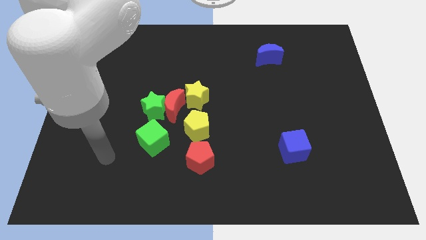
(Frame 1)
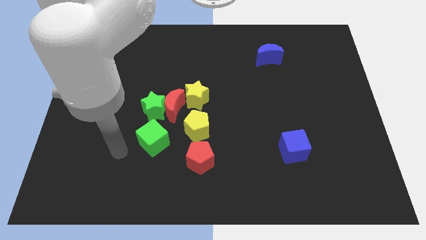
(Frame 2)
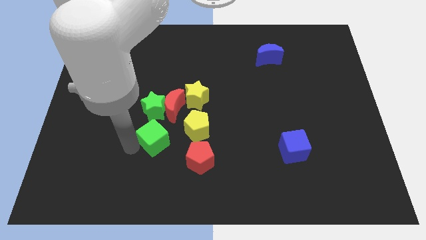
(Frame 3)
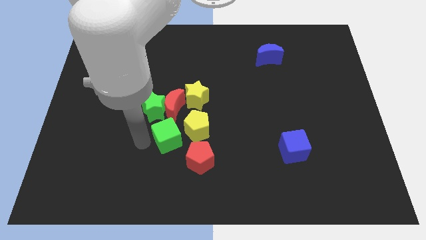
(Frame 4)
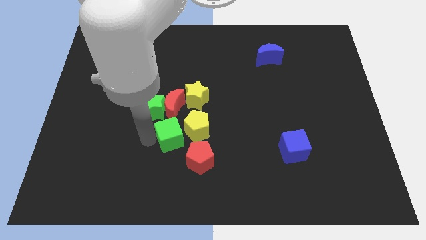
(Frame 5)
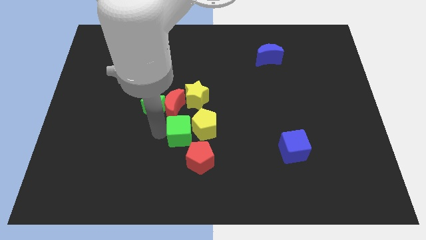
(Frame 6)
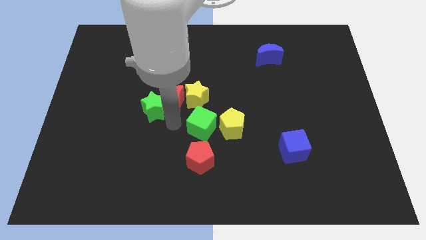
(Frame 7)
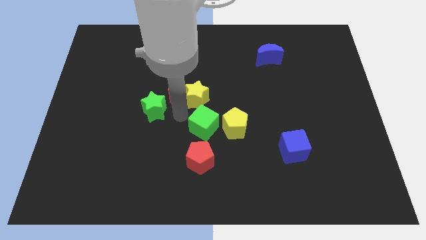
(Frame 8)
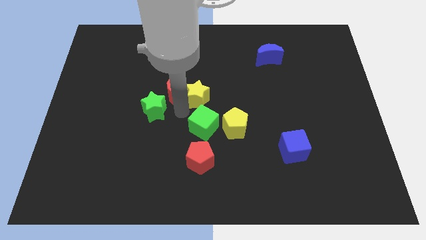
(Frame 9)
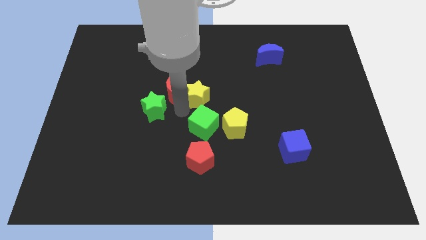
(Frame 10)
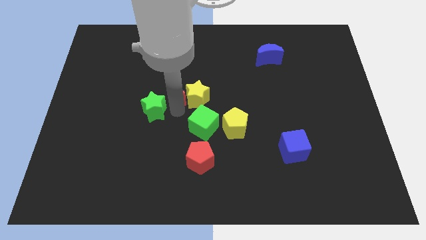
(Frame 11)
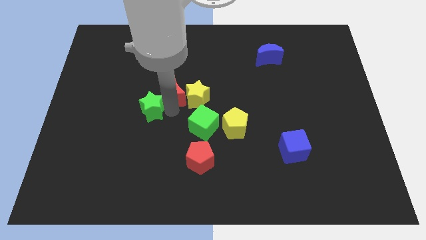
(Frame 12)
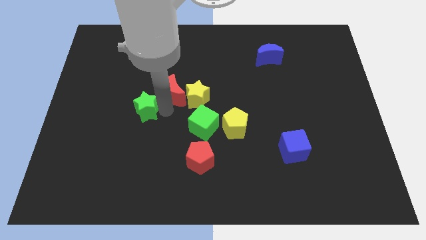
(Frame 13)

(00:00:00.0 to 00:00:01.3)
pull the green star apart from the red moon and green cube

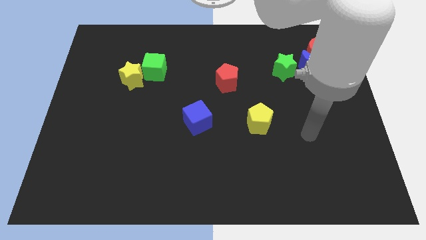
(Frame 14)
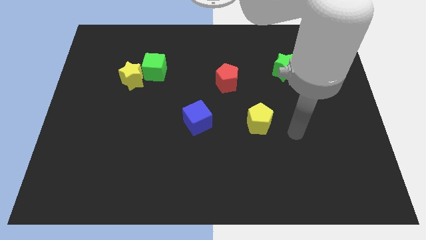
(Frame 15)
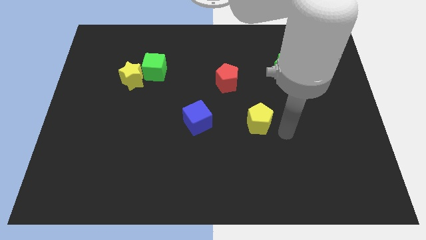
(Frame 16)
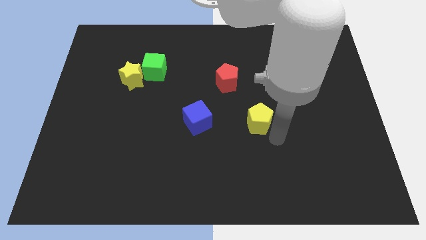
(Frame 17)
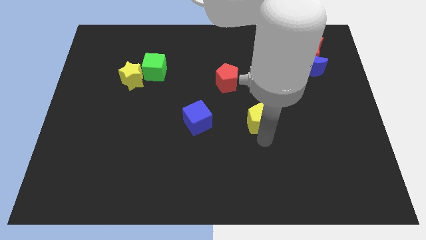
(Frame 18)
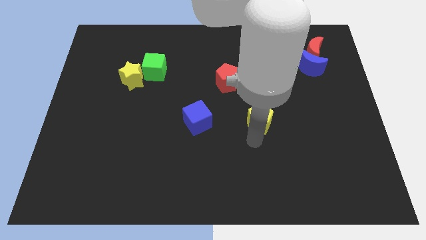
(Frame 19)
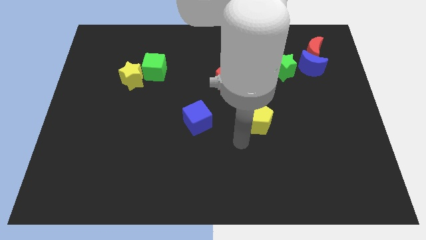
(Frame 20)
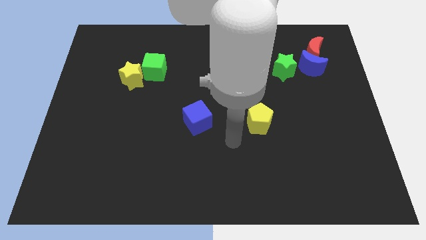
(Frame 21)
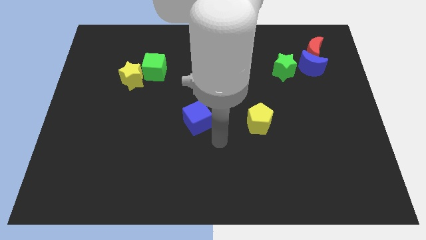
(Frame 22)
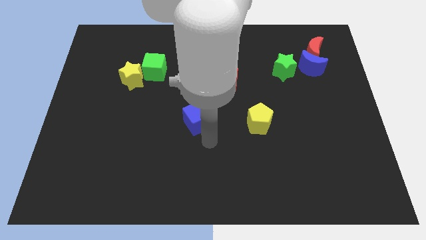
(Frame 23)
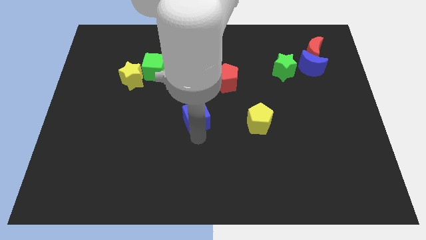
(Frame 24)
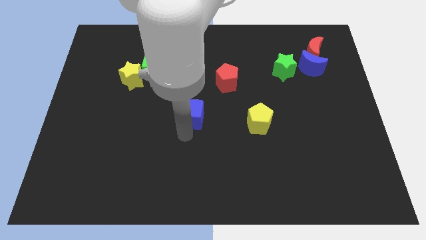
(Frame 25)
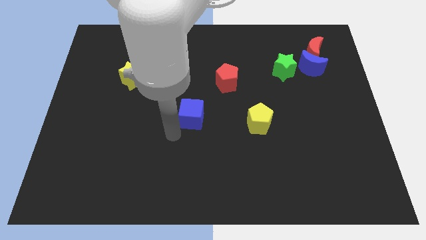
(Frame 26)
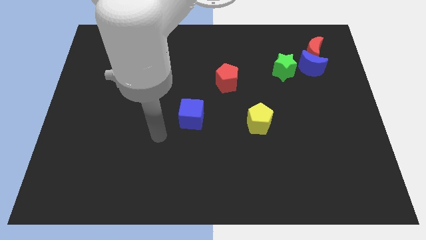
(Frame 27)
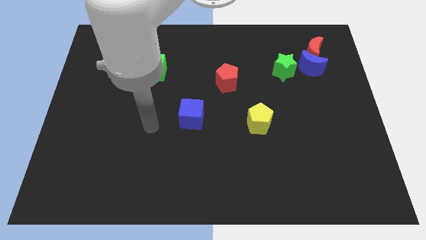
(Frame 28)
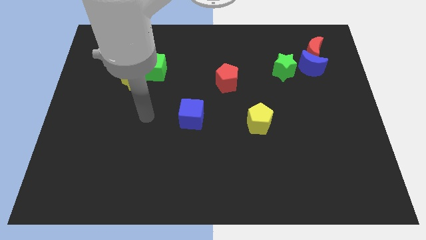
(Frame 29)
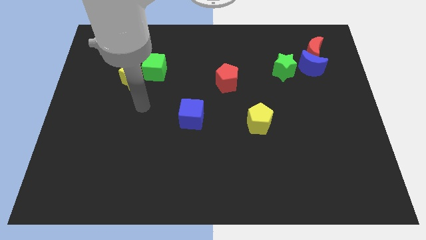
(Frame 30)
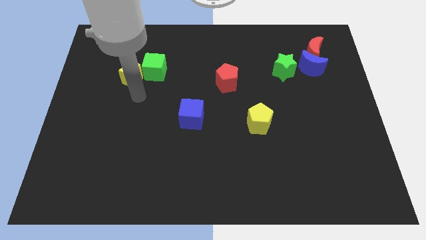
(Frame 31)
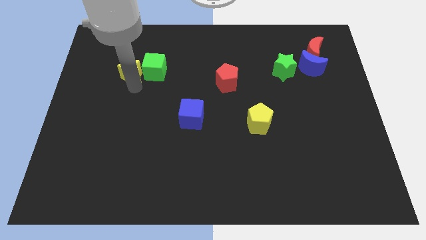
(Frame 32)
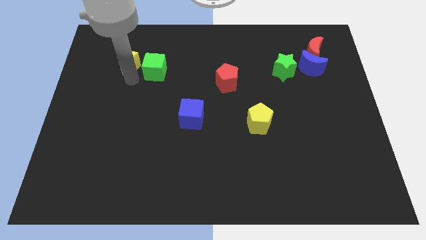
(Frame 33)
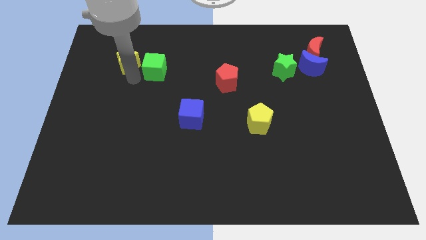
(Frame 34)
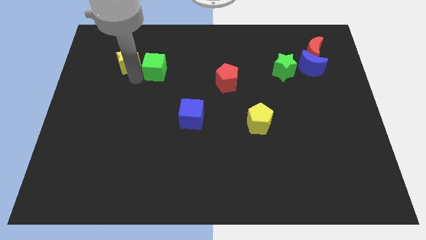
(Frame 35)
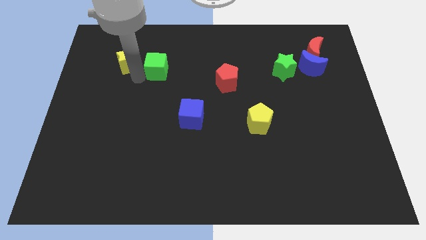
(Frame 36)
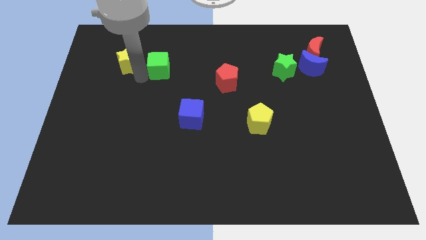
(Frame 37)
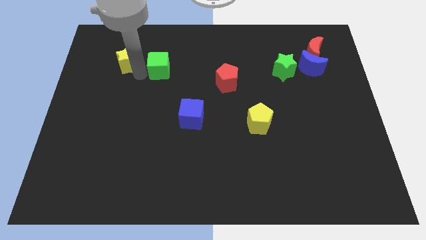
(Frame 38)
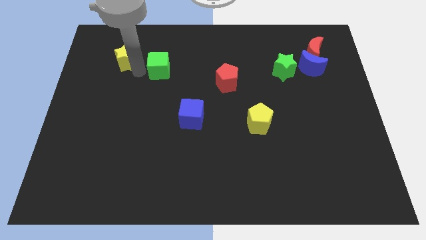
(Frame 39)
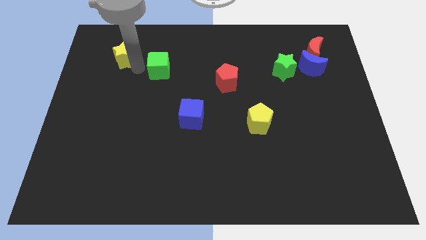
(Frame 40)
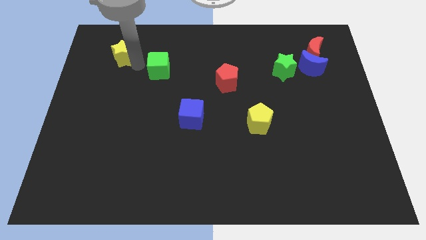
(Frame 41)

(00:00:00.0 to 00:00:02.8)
move the green cube away from the yellow star

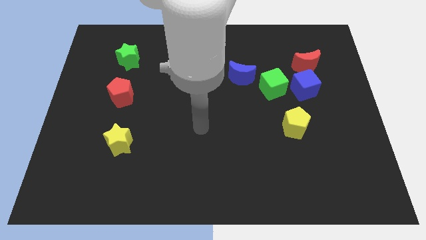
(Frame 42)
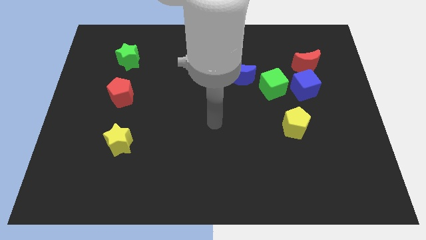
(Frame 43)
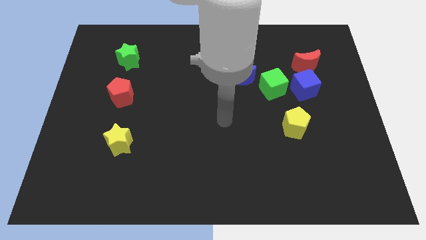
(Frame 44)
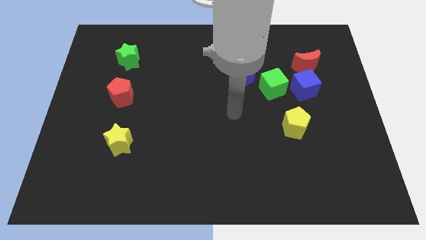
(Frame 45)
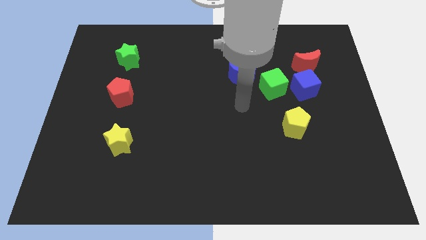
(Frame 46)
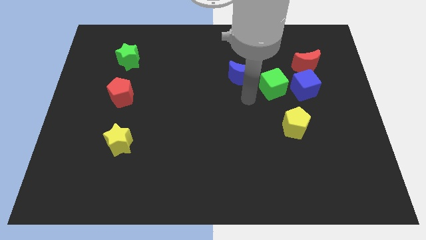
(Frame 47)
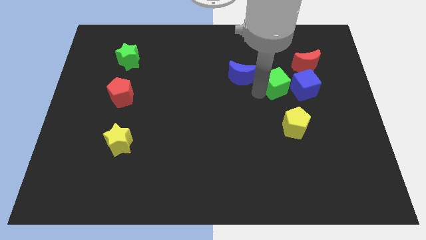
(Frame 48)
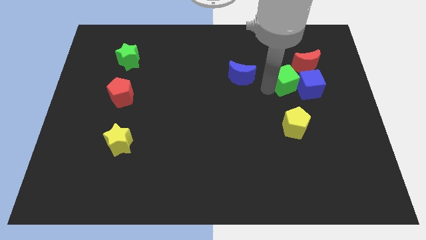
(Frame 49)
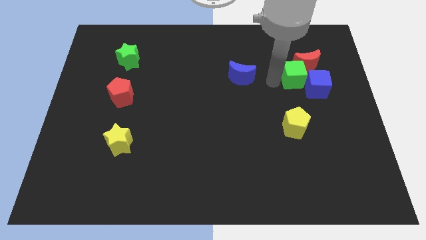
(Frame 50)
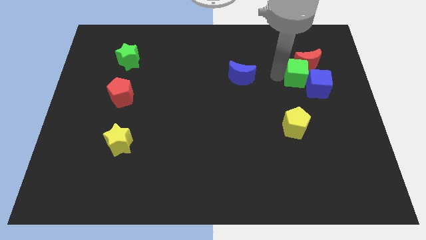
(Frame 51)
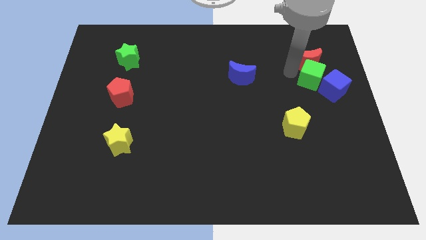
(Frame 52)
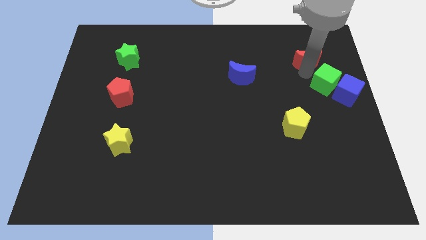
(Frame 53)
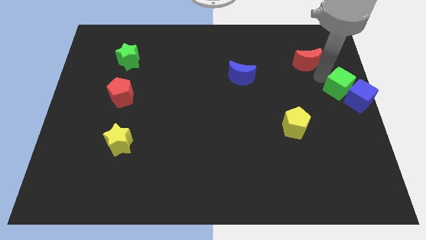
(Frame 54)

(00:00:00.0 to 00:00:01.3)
separate the blue cube from the green cube and red moon

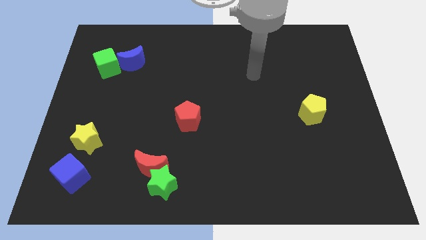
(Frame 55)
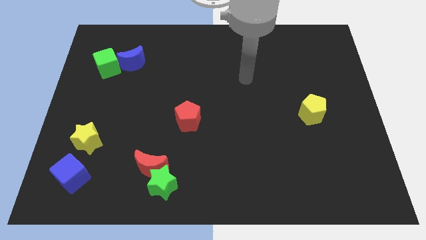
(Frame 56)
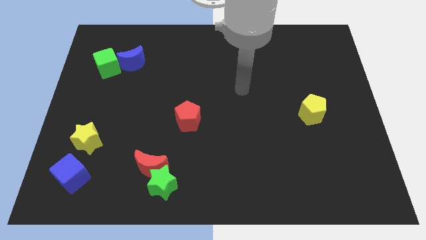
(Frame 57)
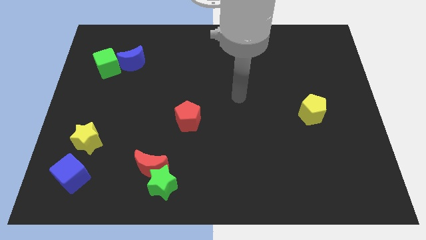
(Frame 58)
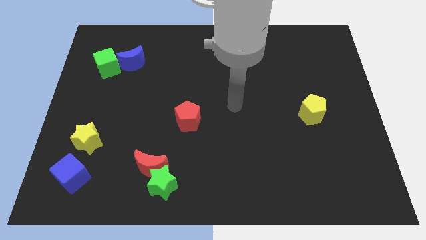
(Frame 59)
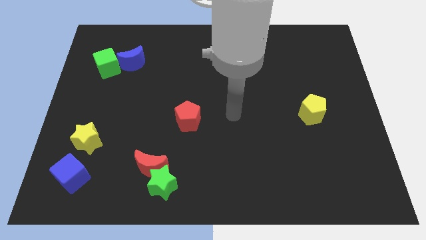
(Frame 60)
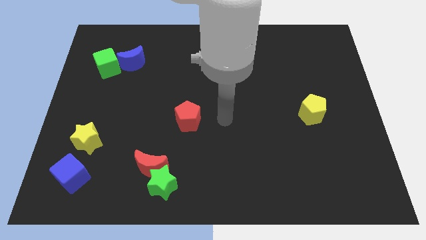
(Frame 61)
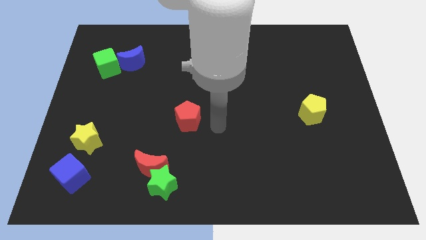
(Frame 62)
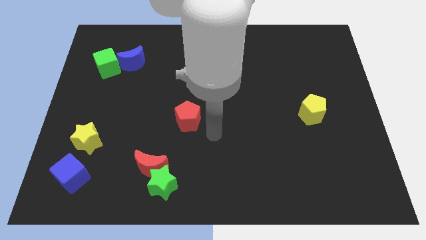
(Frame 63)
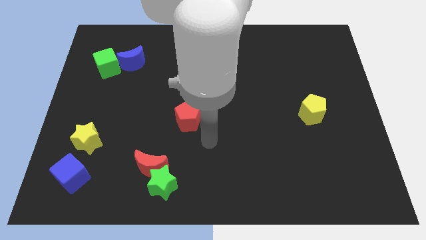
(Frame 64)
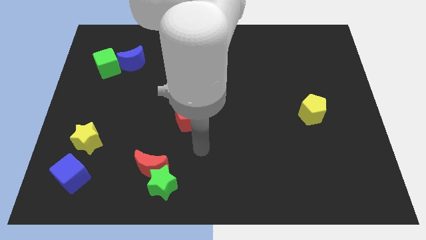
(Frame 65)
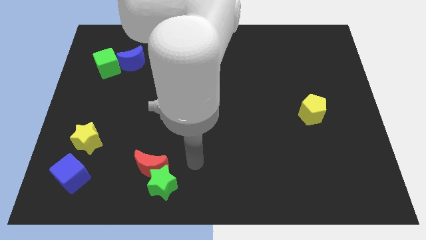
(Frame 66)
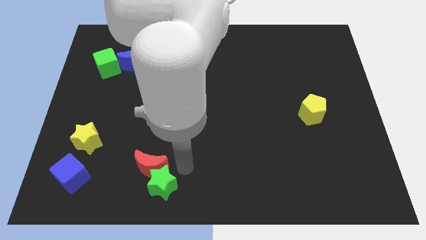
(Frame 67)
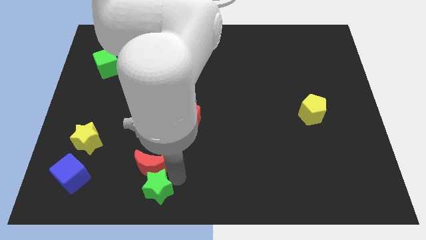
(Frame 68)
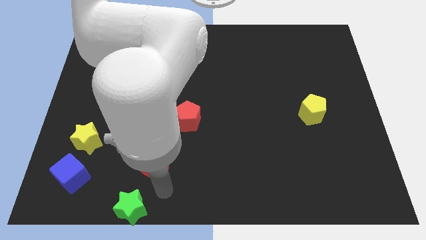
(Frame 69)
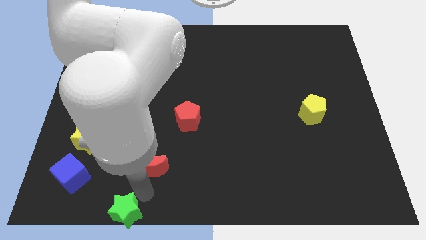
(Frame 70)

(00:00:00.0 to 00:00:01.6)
move the red moon away from the green star

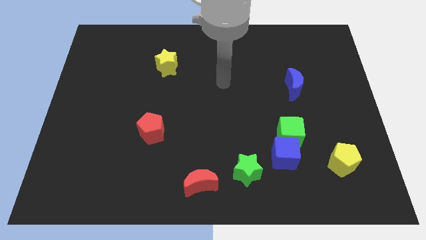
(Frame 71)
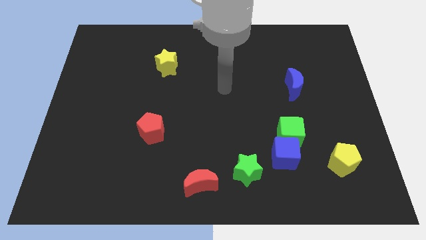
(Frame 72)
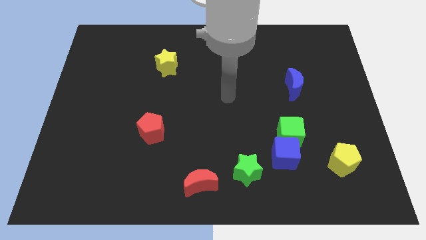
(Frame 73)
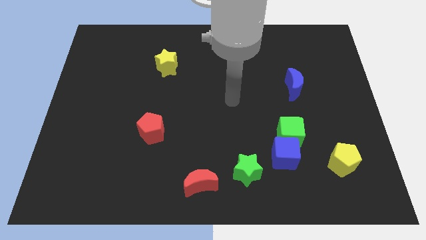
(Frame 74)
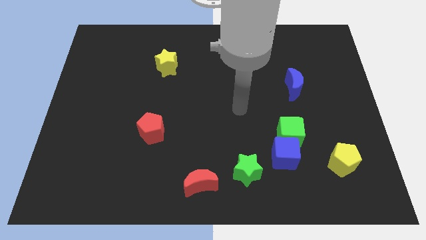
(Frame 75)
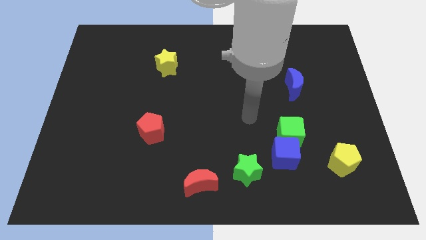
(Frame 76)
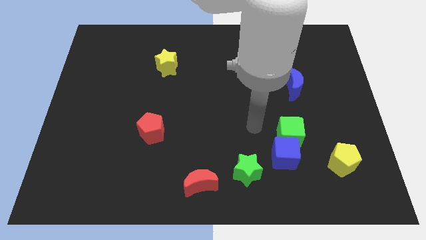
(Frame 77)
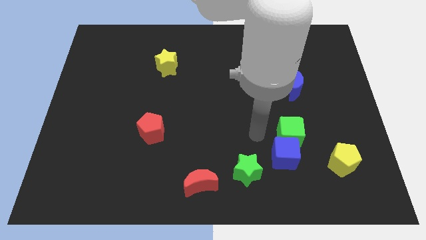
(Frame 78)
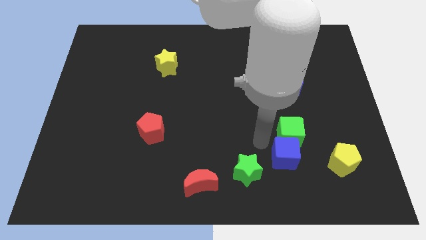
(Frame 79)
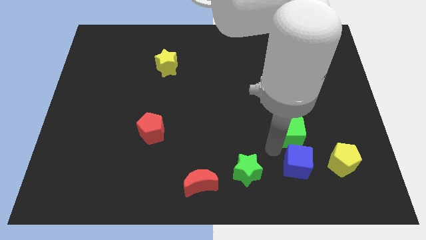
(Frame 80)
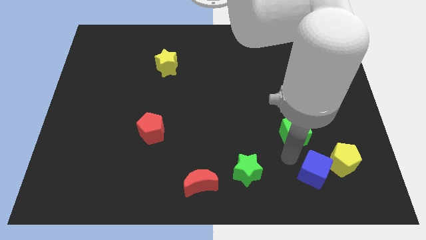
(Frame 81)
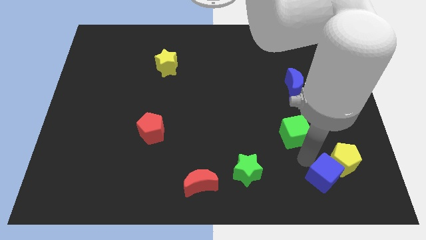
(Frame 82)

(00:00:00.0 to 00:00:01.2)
pull the green cube apart from the blue cube

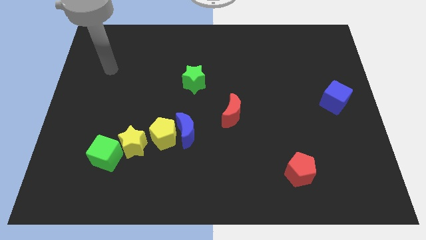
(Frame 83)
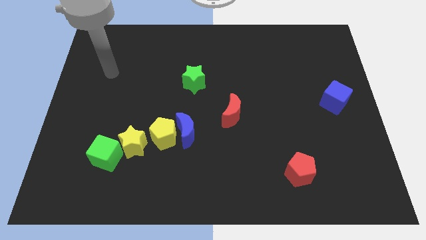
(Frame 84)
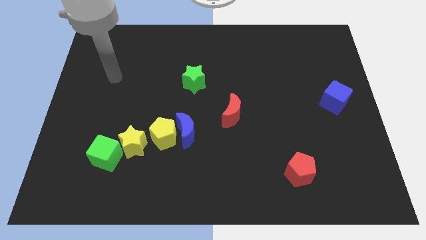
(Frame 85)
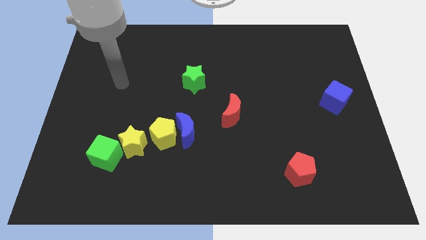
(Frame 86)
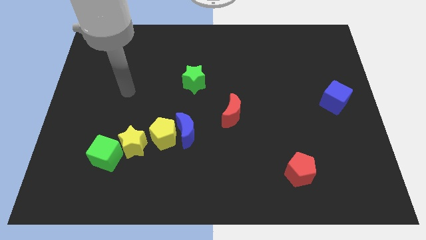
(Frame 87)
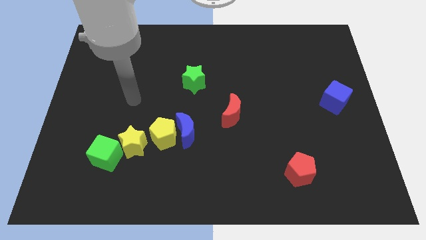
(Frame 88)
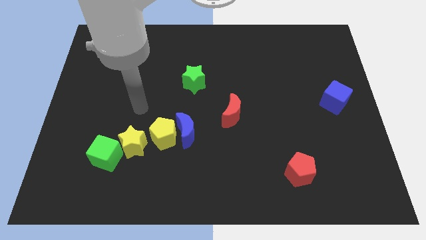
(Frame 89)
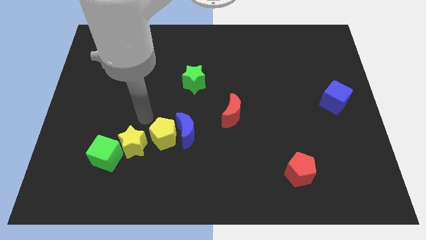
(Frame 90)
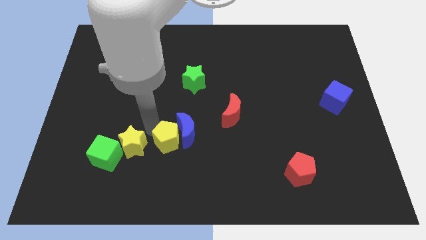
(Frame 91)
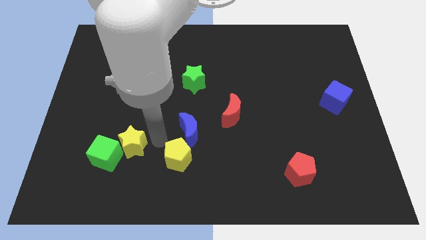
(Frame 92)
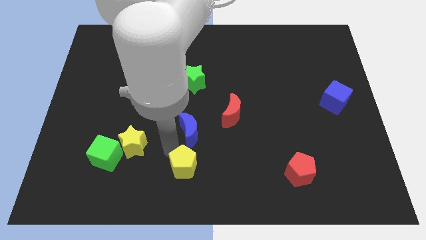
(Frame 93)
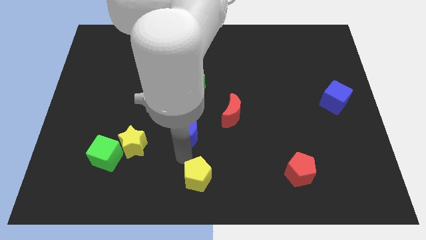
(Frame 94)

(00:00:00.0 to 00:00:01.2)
pull the blue moon apart from the yellow pentagon

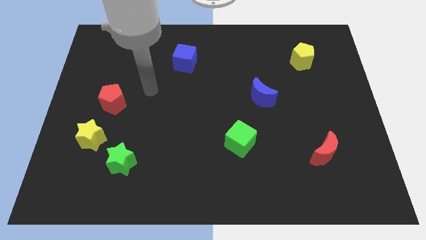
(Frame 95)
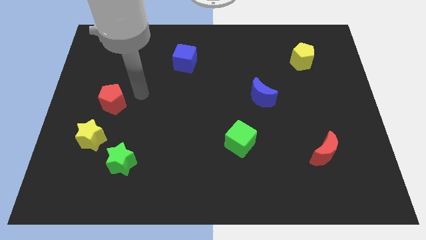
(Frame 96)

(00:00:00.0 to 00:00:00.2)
pull the green star apart from the yellow star
